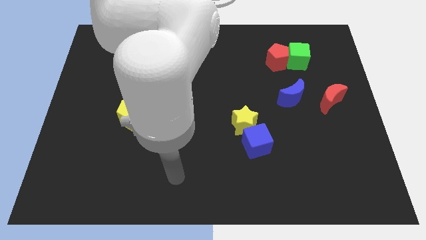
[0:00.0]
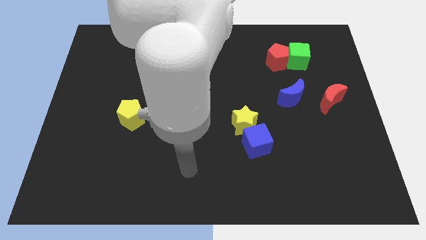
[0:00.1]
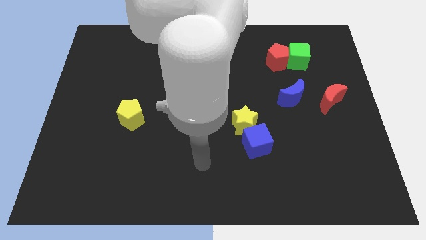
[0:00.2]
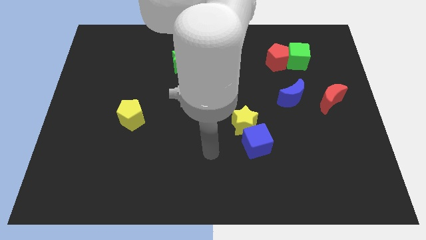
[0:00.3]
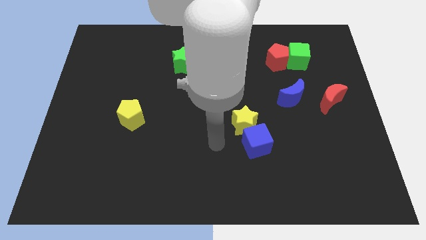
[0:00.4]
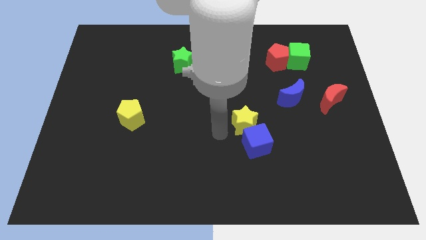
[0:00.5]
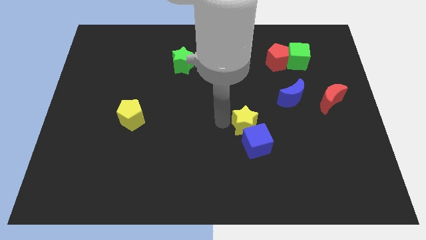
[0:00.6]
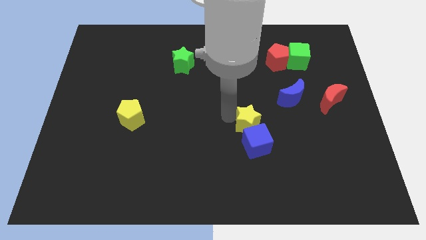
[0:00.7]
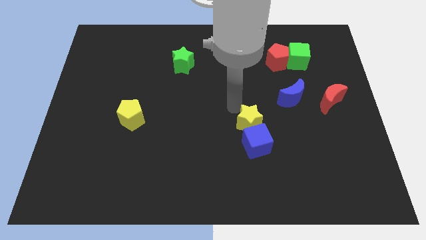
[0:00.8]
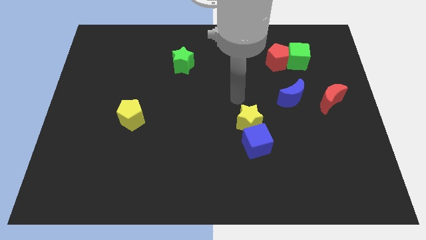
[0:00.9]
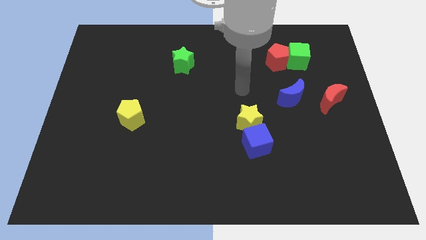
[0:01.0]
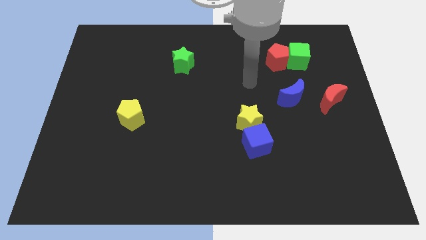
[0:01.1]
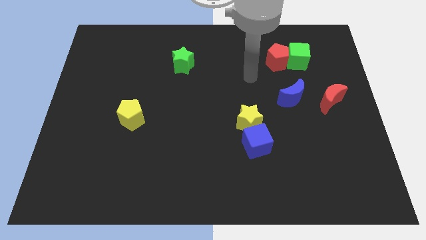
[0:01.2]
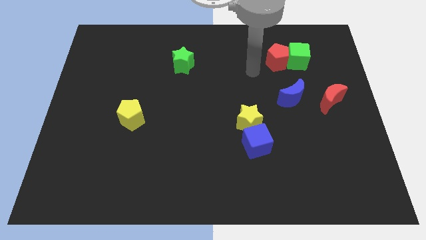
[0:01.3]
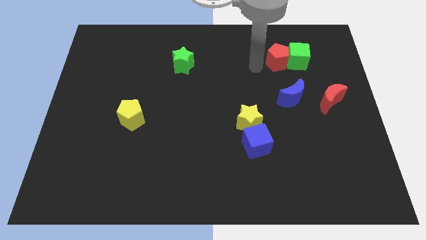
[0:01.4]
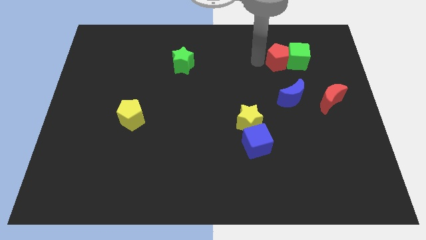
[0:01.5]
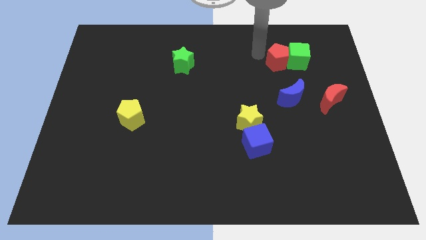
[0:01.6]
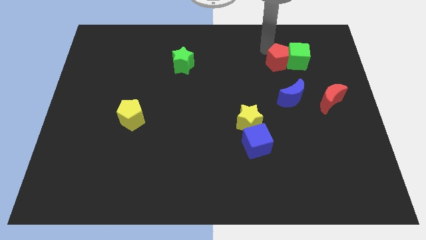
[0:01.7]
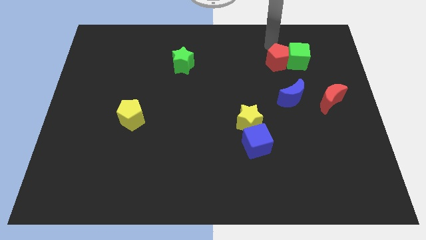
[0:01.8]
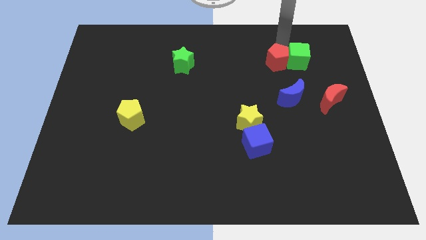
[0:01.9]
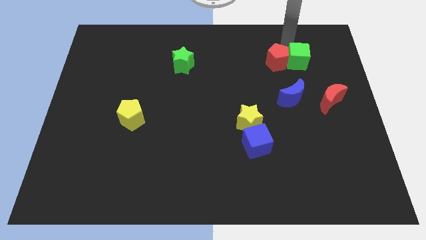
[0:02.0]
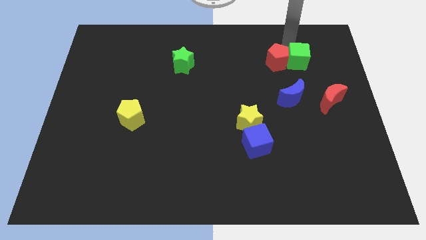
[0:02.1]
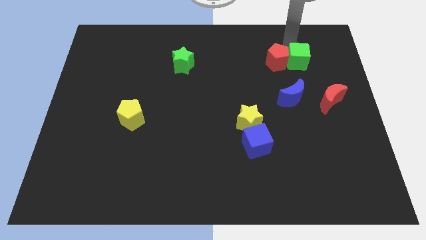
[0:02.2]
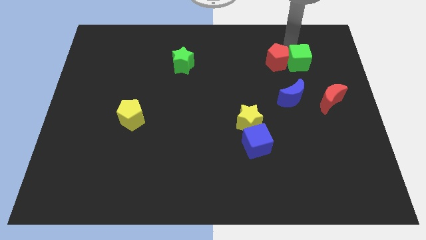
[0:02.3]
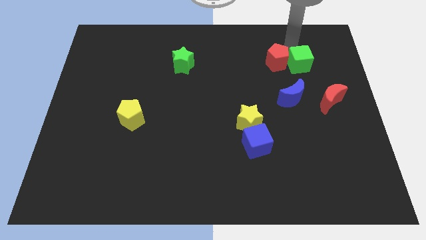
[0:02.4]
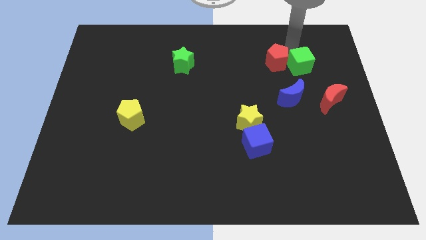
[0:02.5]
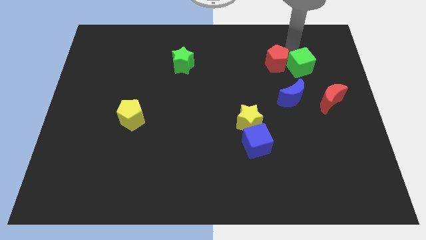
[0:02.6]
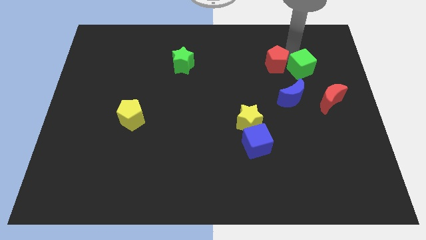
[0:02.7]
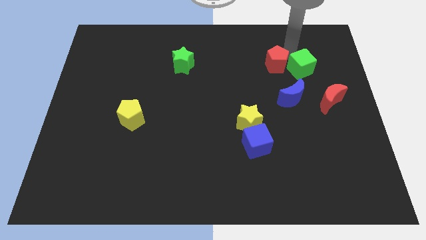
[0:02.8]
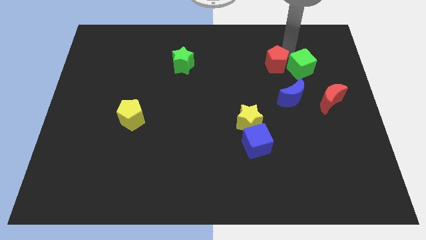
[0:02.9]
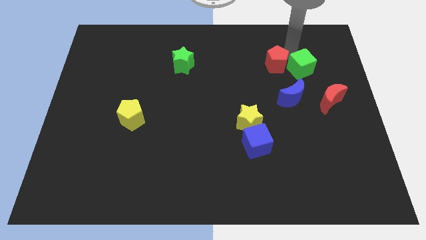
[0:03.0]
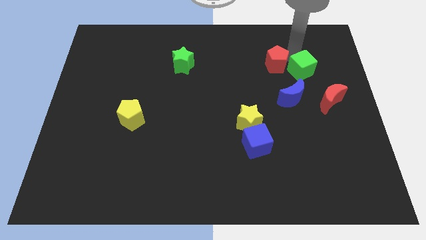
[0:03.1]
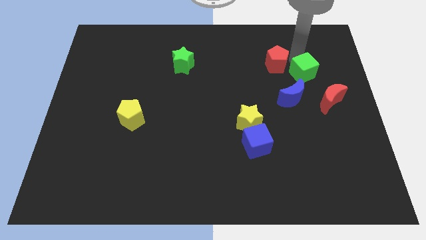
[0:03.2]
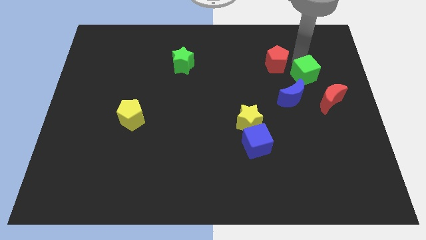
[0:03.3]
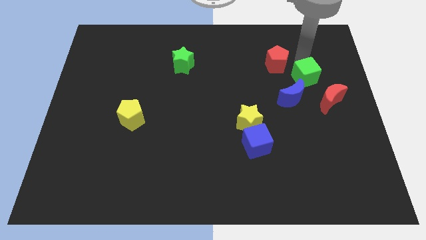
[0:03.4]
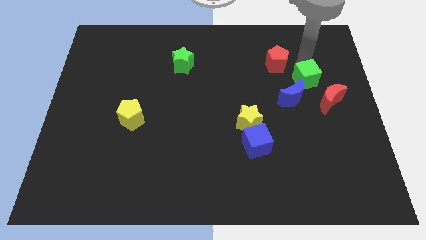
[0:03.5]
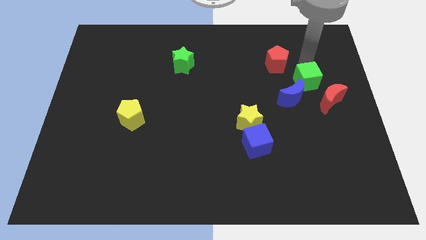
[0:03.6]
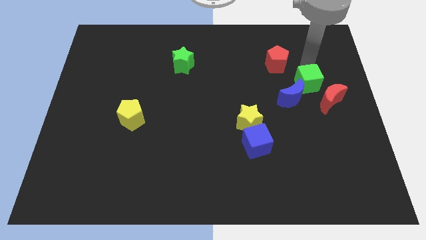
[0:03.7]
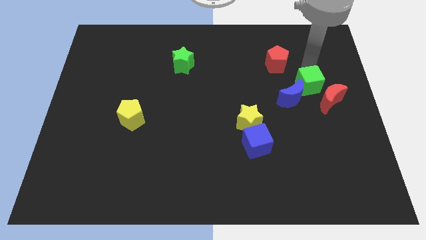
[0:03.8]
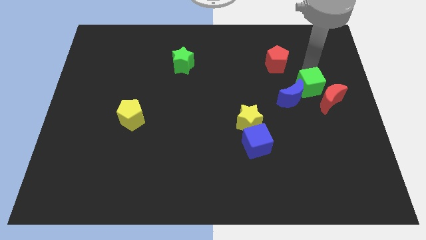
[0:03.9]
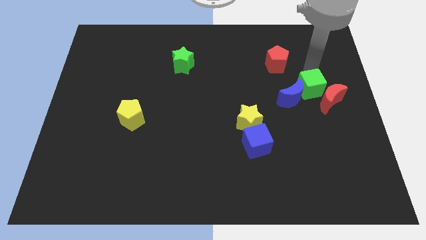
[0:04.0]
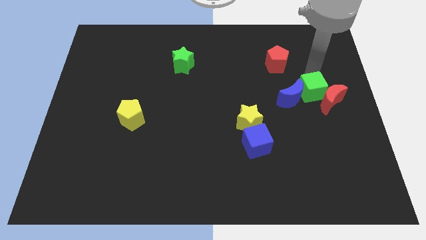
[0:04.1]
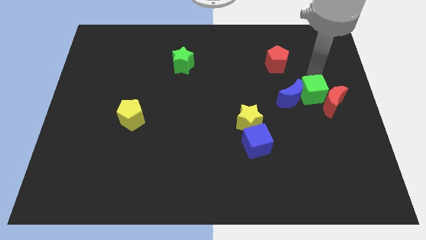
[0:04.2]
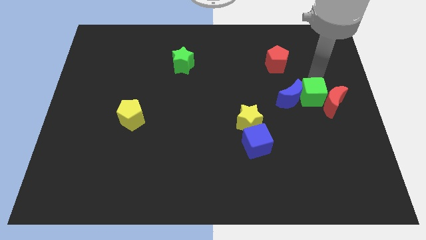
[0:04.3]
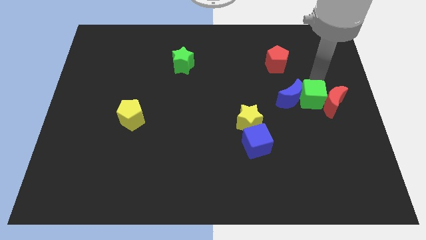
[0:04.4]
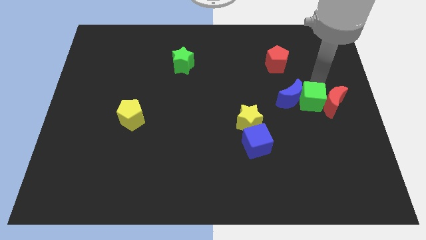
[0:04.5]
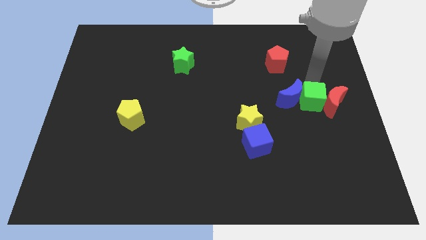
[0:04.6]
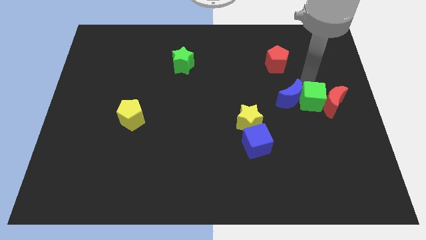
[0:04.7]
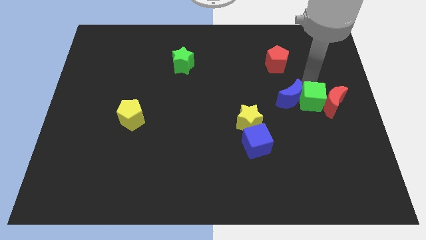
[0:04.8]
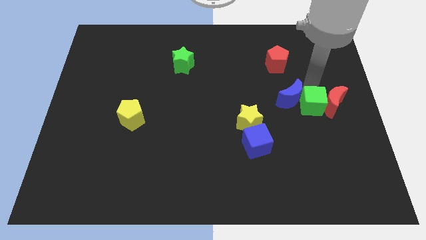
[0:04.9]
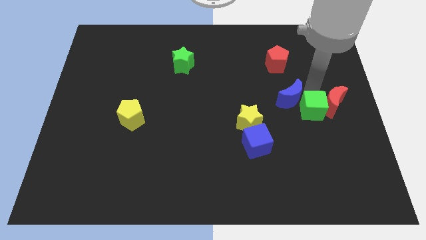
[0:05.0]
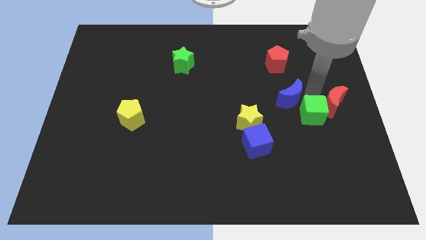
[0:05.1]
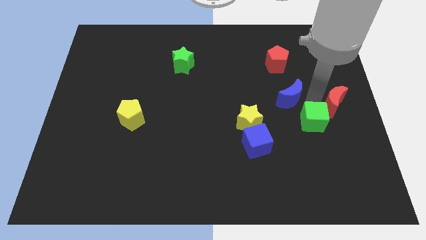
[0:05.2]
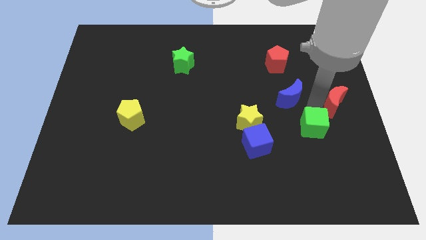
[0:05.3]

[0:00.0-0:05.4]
move the green cube downwards

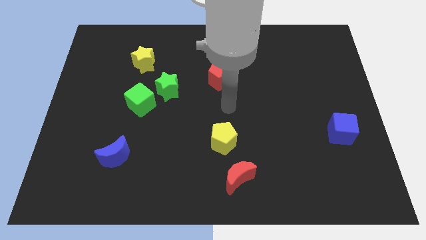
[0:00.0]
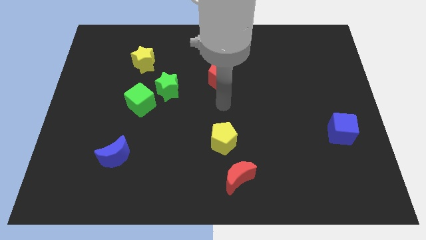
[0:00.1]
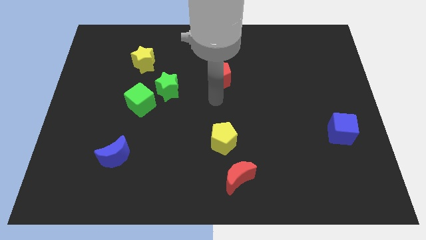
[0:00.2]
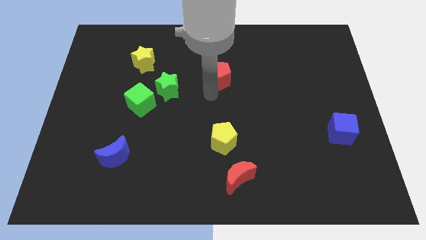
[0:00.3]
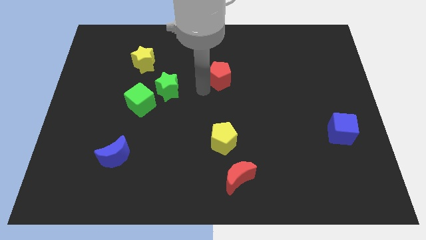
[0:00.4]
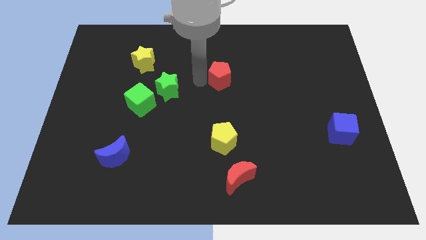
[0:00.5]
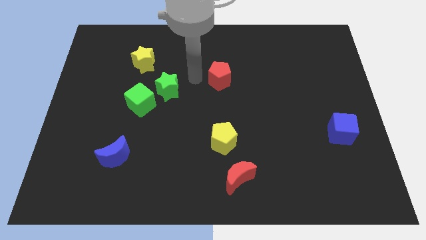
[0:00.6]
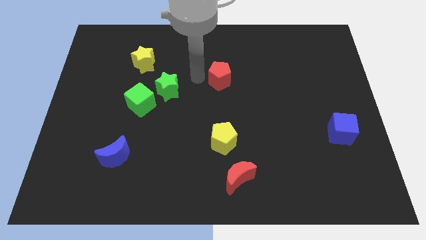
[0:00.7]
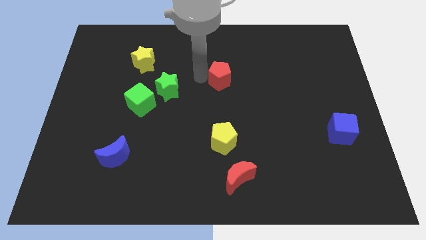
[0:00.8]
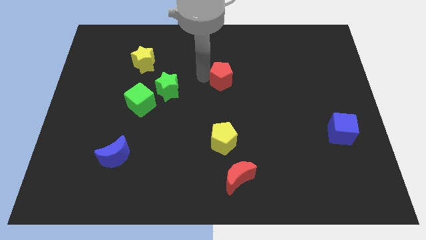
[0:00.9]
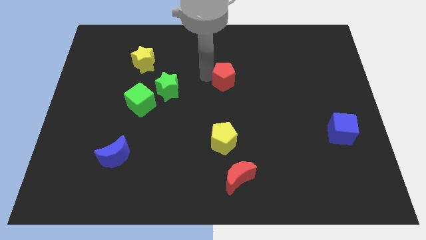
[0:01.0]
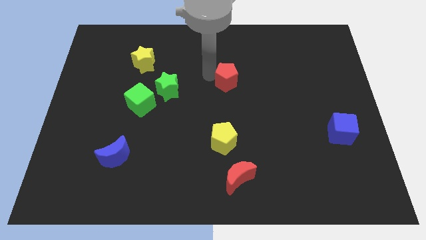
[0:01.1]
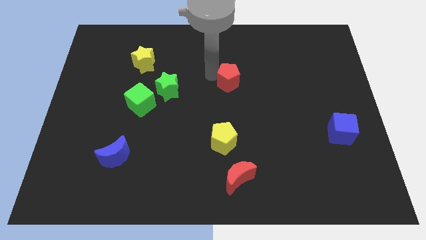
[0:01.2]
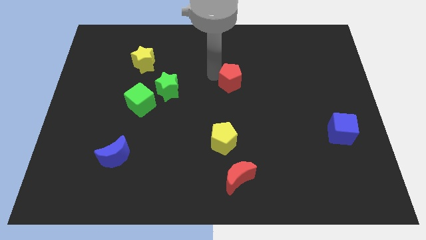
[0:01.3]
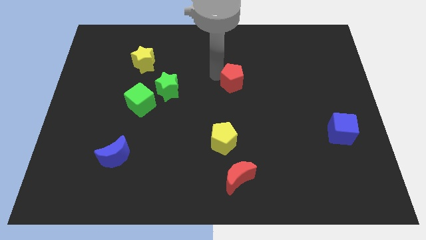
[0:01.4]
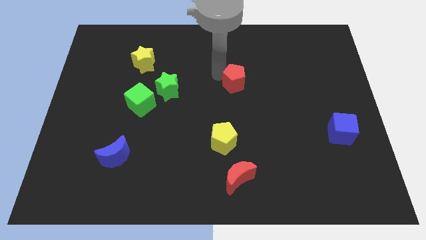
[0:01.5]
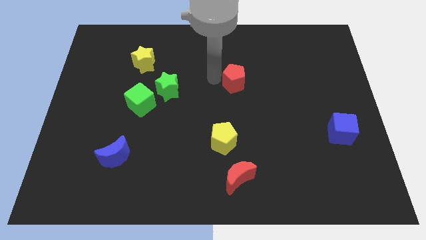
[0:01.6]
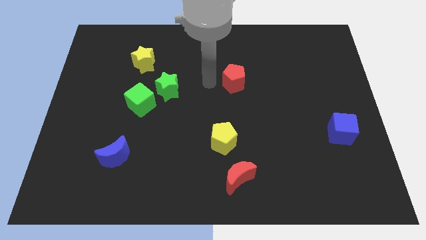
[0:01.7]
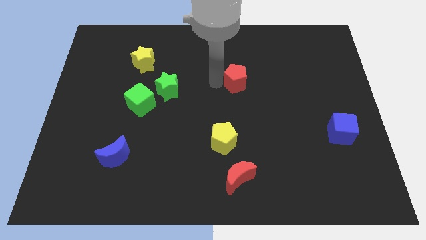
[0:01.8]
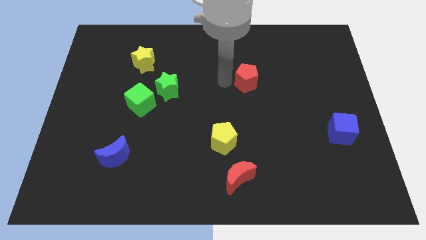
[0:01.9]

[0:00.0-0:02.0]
slightly push the red pentagon right

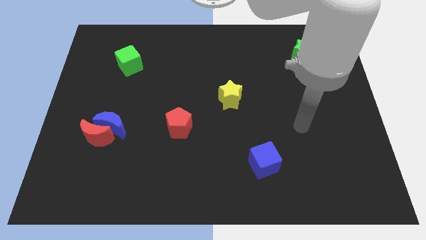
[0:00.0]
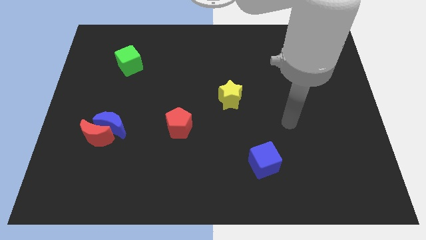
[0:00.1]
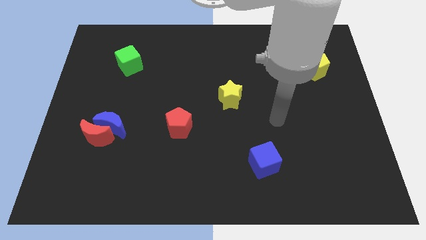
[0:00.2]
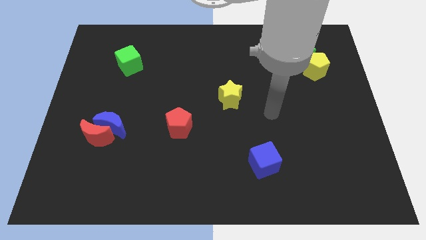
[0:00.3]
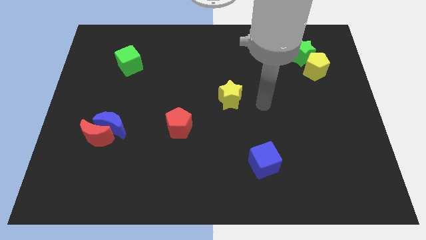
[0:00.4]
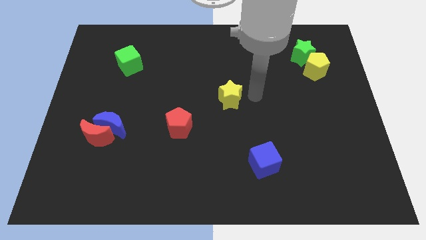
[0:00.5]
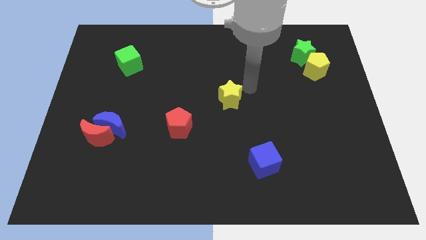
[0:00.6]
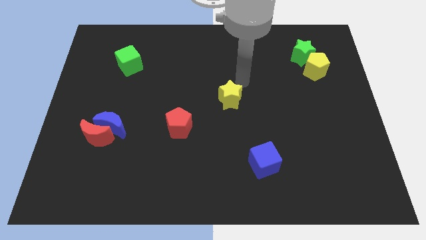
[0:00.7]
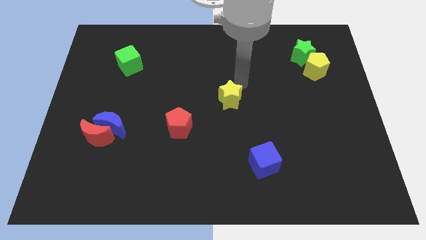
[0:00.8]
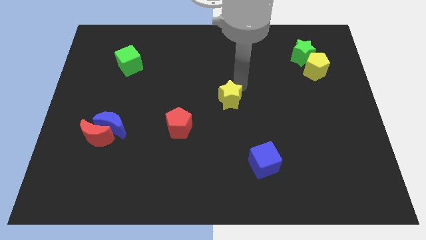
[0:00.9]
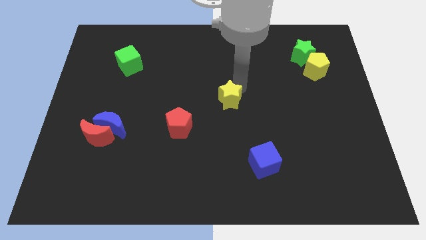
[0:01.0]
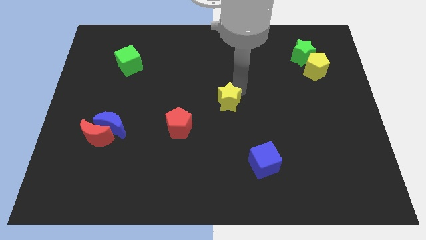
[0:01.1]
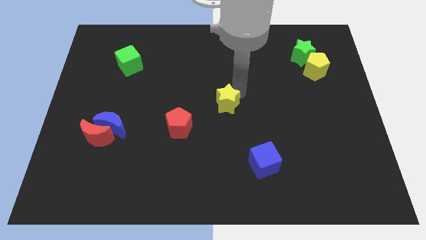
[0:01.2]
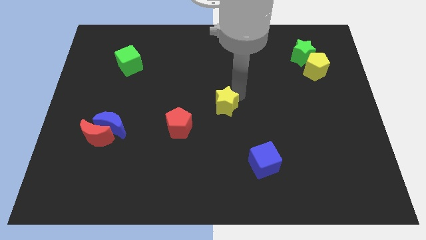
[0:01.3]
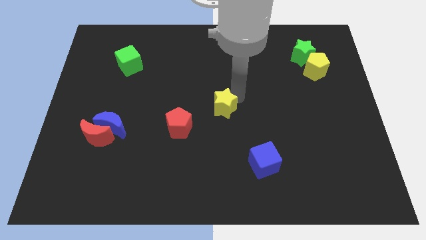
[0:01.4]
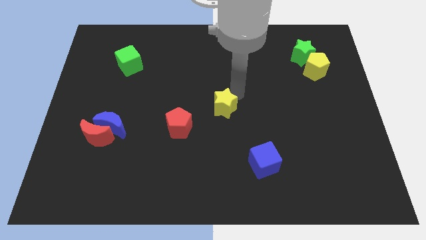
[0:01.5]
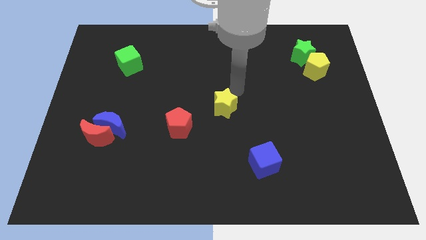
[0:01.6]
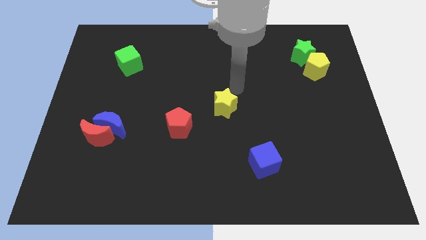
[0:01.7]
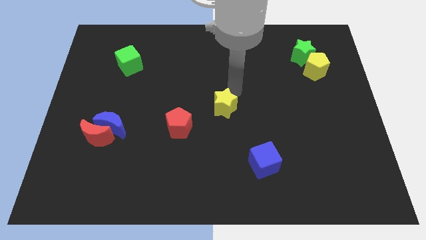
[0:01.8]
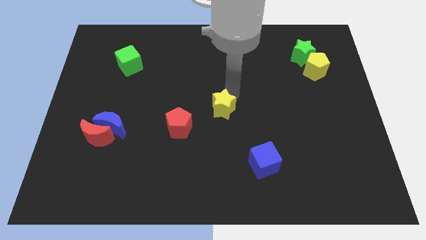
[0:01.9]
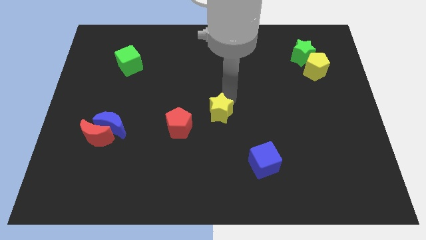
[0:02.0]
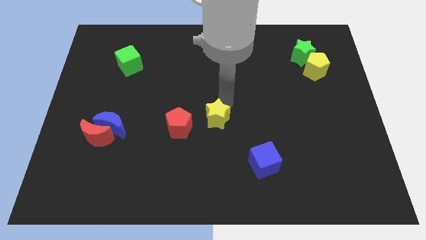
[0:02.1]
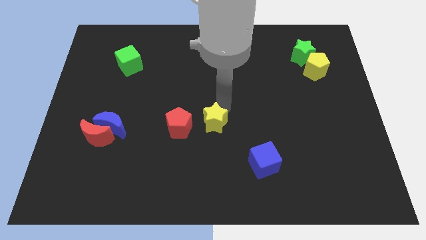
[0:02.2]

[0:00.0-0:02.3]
slide the yellow star somewhat diagonally downwards and left
